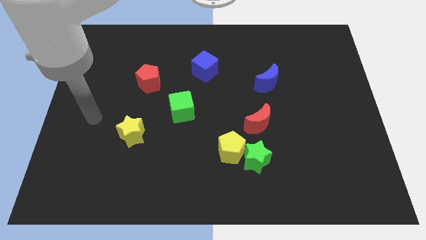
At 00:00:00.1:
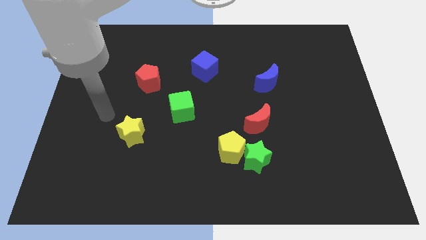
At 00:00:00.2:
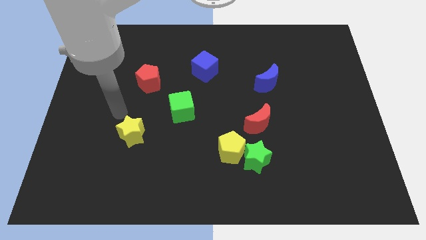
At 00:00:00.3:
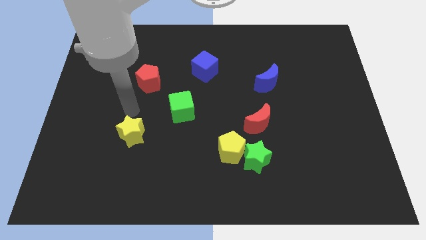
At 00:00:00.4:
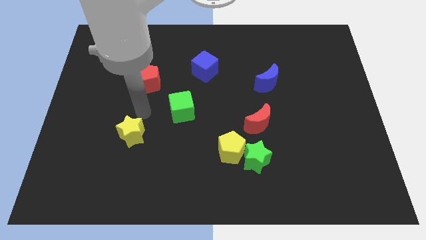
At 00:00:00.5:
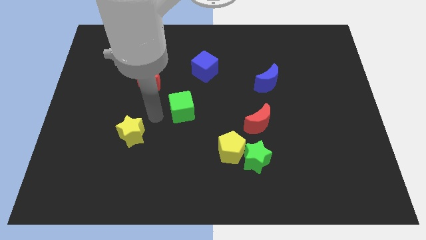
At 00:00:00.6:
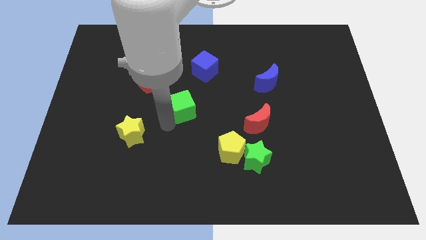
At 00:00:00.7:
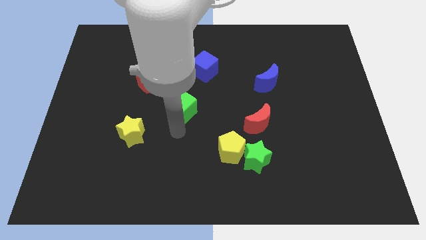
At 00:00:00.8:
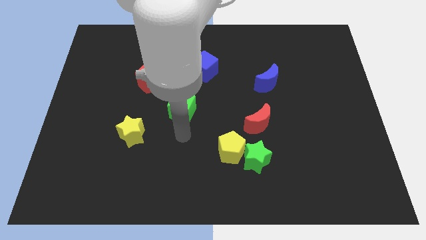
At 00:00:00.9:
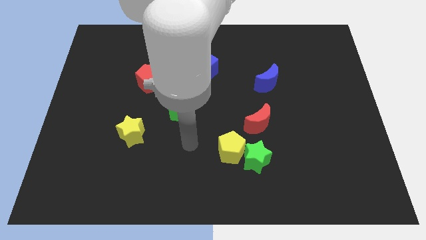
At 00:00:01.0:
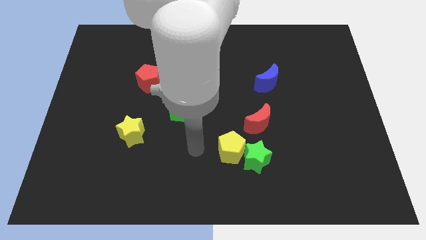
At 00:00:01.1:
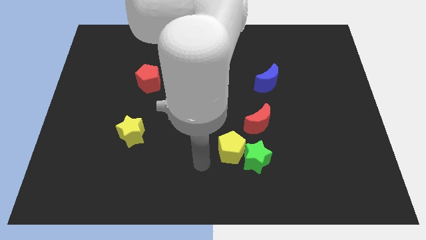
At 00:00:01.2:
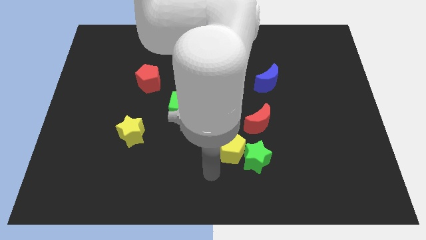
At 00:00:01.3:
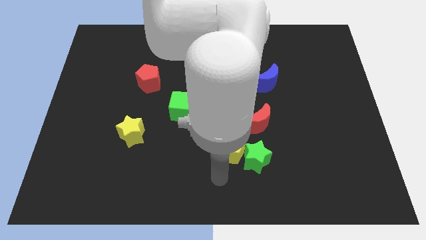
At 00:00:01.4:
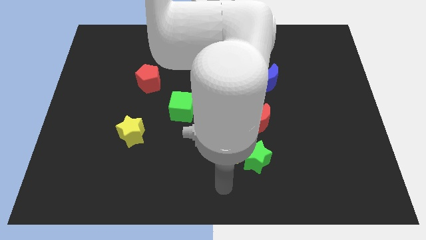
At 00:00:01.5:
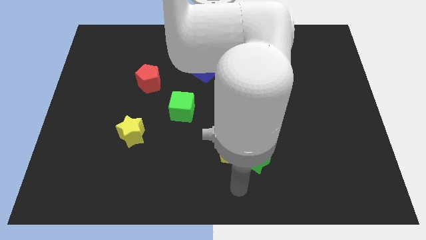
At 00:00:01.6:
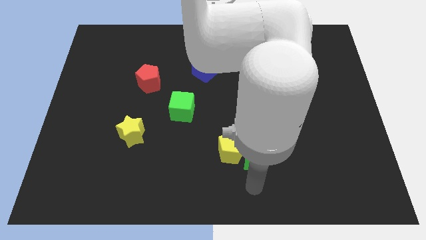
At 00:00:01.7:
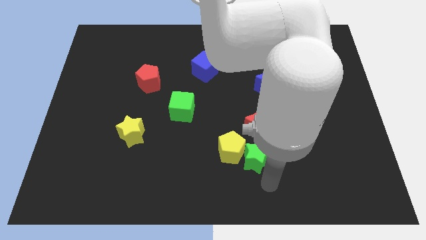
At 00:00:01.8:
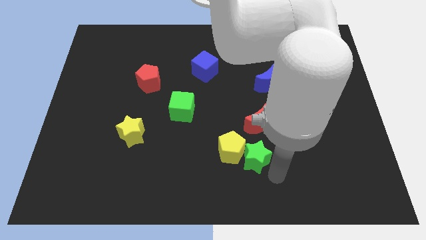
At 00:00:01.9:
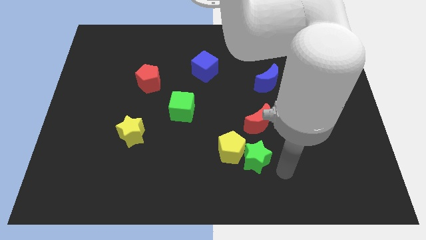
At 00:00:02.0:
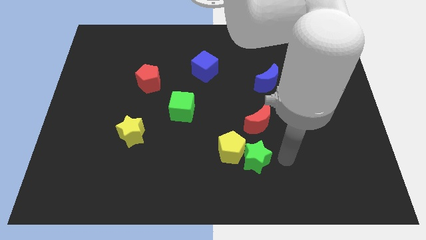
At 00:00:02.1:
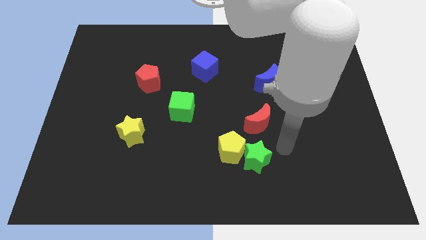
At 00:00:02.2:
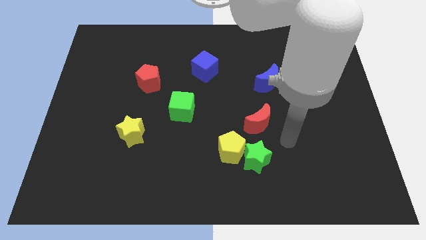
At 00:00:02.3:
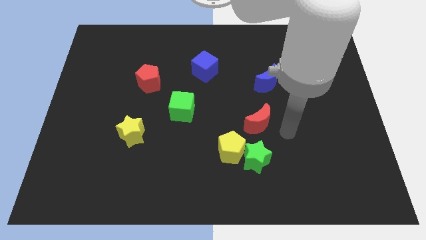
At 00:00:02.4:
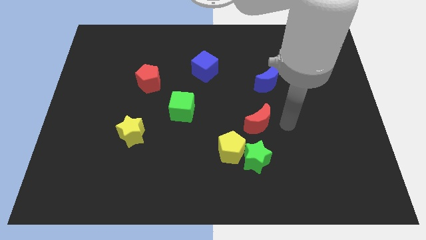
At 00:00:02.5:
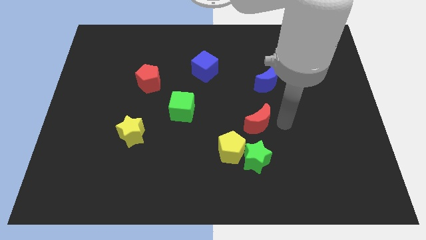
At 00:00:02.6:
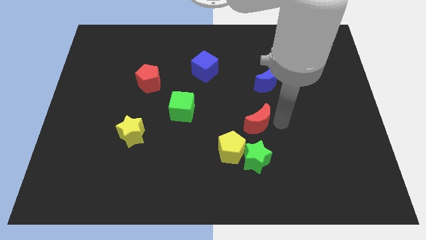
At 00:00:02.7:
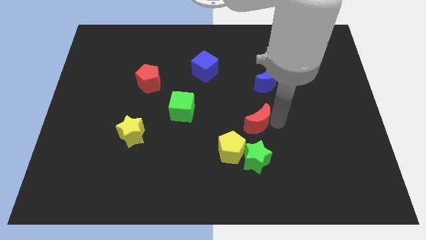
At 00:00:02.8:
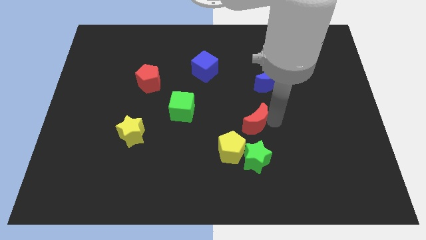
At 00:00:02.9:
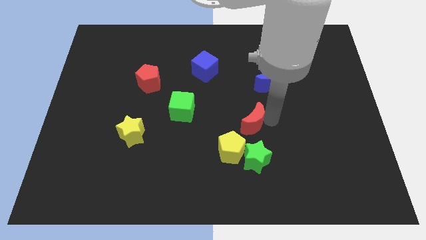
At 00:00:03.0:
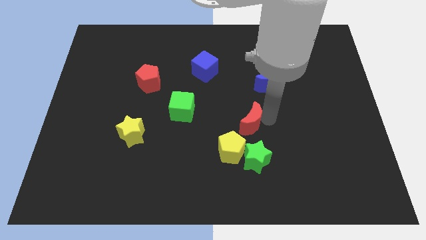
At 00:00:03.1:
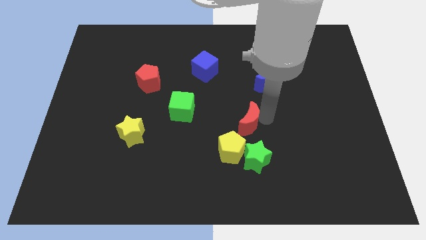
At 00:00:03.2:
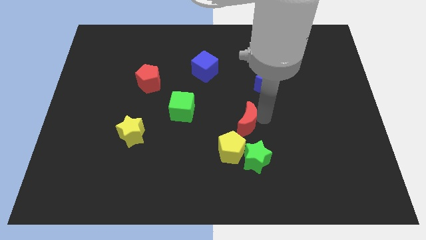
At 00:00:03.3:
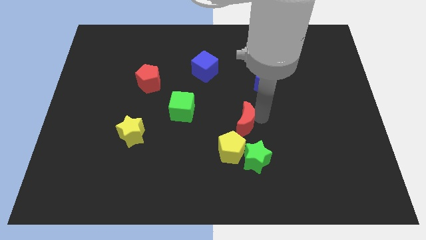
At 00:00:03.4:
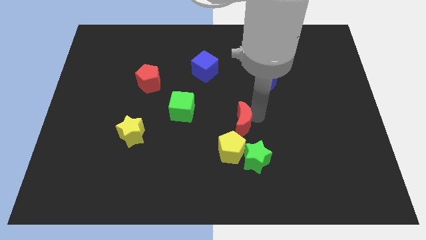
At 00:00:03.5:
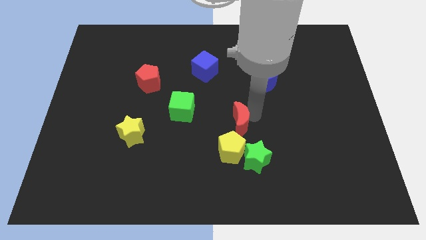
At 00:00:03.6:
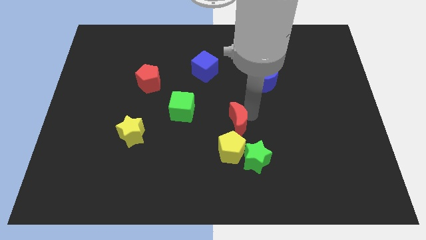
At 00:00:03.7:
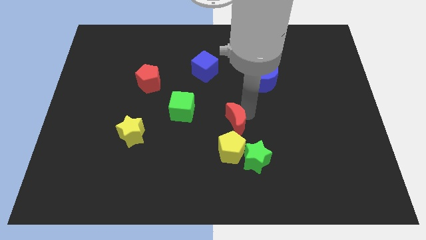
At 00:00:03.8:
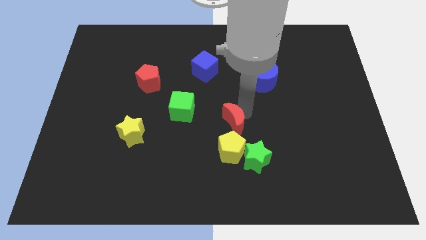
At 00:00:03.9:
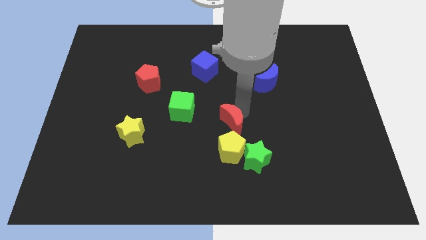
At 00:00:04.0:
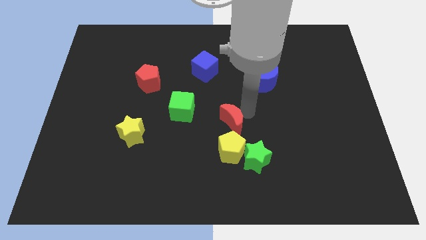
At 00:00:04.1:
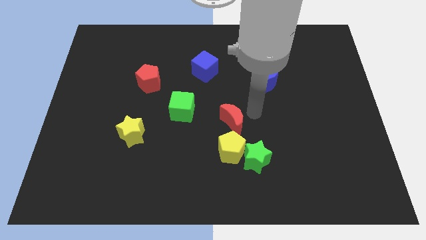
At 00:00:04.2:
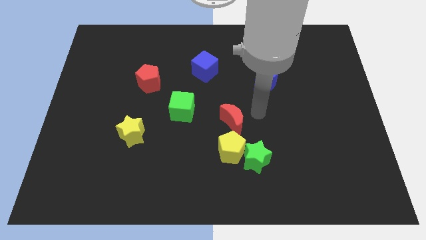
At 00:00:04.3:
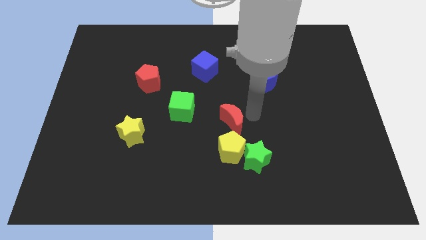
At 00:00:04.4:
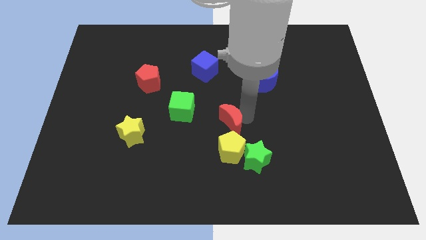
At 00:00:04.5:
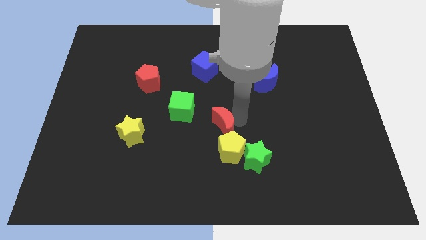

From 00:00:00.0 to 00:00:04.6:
move the red moon a bit left

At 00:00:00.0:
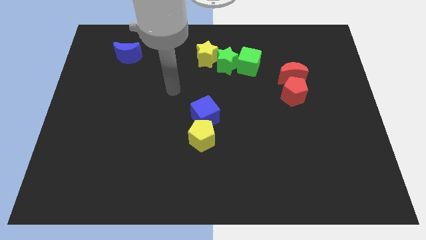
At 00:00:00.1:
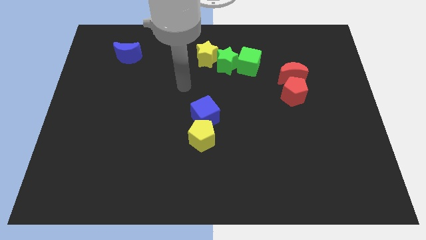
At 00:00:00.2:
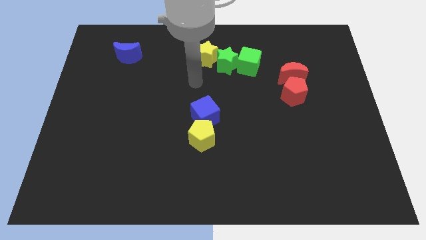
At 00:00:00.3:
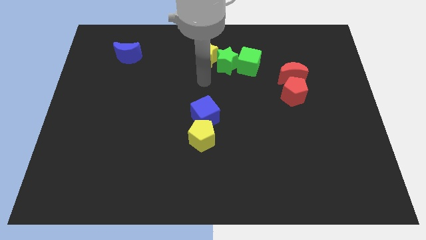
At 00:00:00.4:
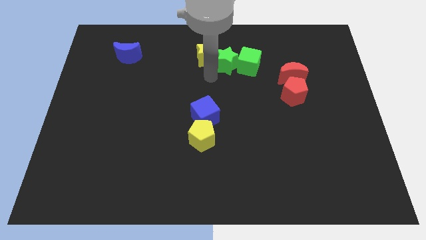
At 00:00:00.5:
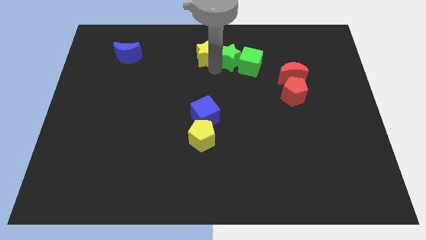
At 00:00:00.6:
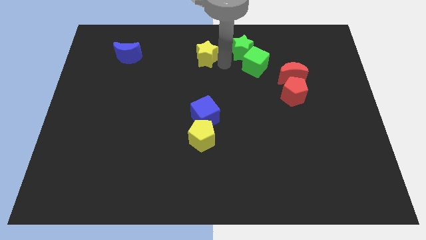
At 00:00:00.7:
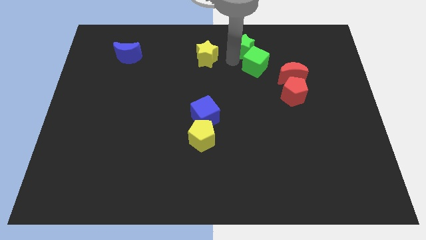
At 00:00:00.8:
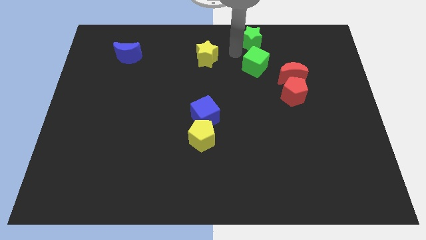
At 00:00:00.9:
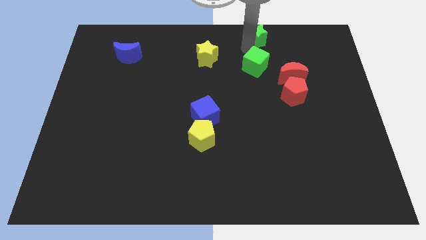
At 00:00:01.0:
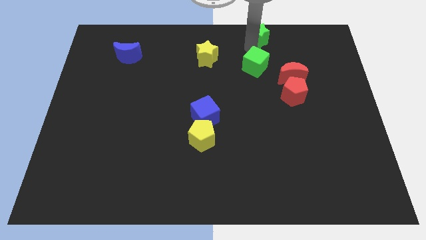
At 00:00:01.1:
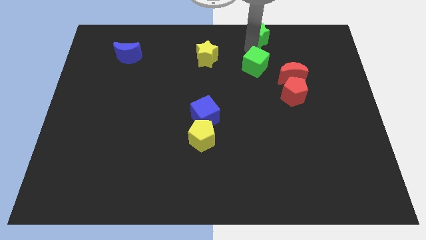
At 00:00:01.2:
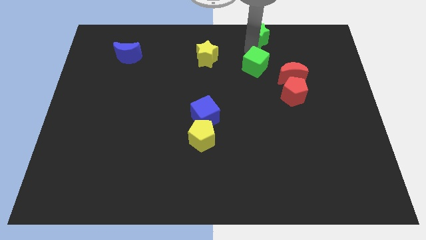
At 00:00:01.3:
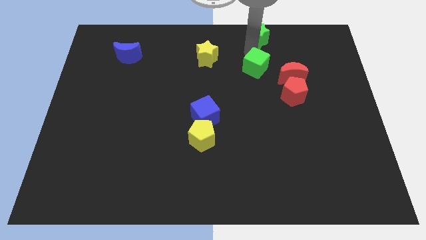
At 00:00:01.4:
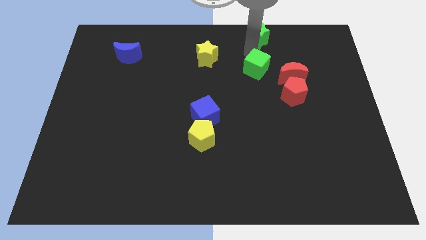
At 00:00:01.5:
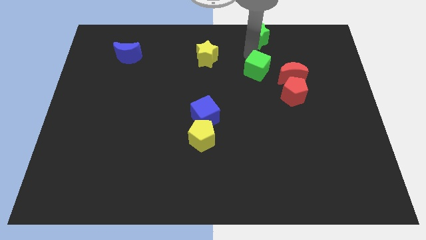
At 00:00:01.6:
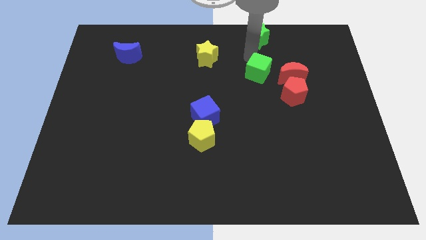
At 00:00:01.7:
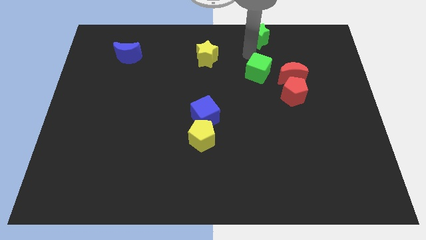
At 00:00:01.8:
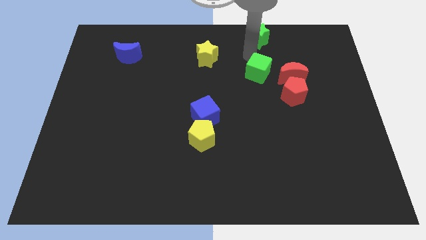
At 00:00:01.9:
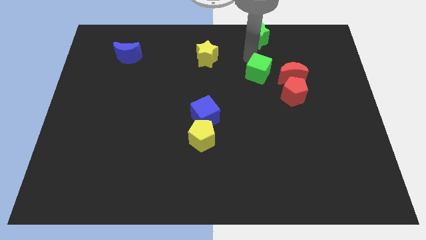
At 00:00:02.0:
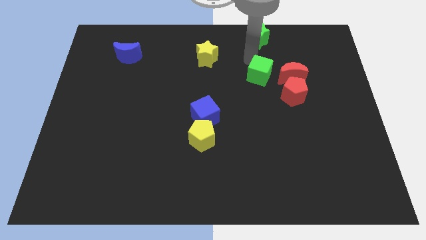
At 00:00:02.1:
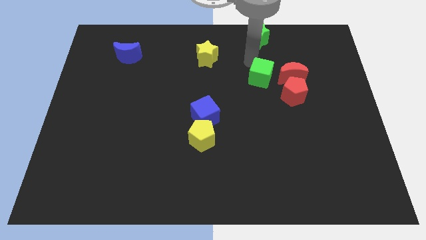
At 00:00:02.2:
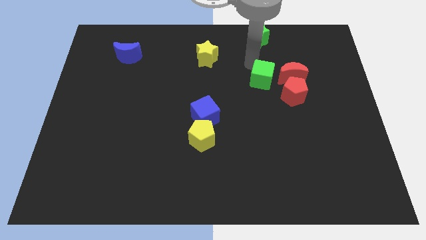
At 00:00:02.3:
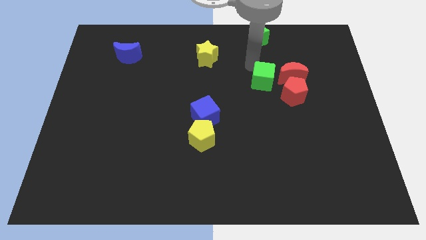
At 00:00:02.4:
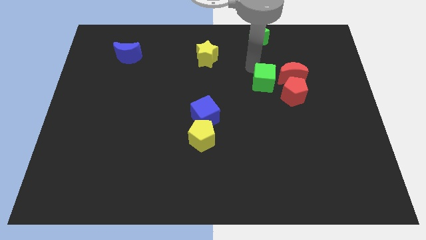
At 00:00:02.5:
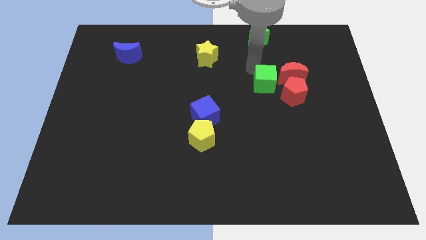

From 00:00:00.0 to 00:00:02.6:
slide the green cube down and right a bit

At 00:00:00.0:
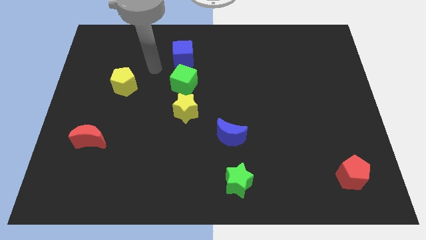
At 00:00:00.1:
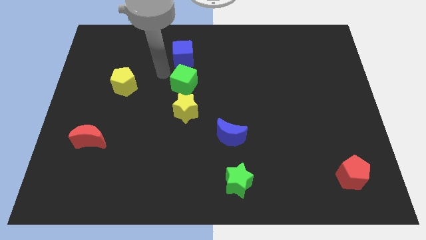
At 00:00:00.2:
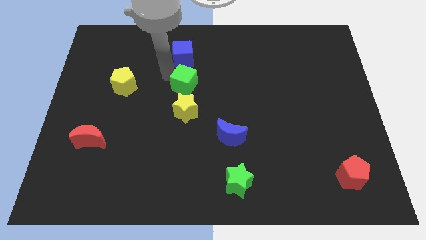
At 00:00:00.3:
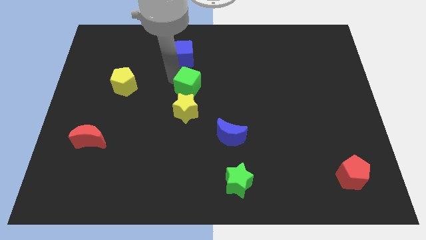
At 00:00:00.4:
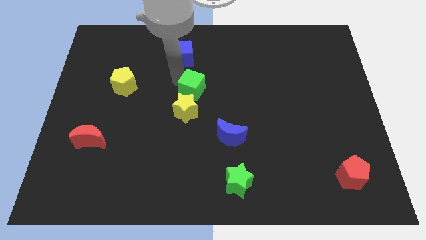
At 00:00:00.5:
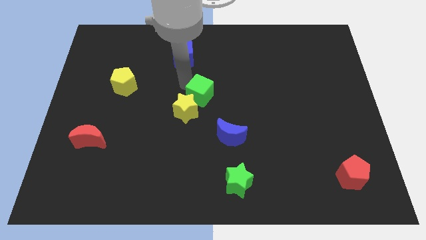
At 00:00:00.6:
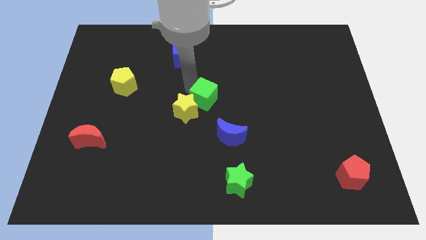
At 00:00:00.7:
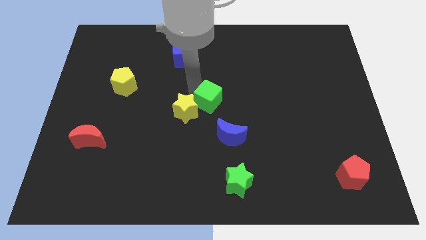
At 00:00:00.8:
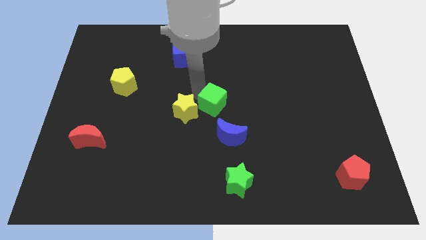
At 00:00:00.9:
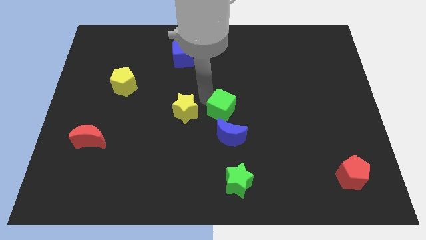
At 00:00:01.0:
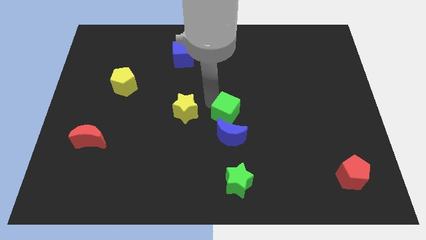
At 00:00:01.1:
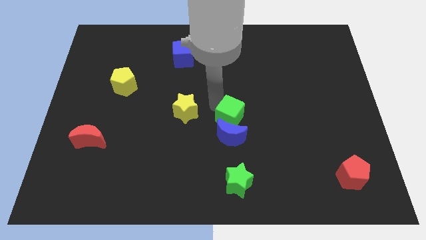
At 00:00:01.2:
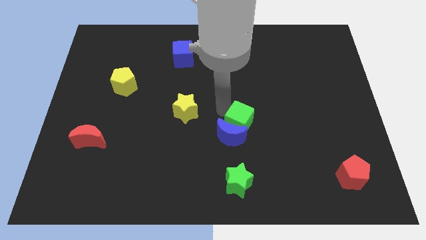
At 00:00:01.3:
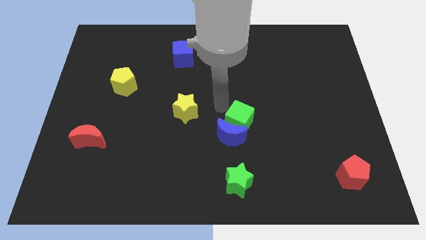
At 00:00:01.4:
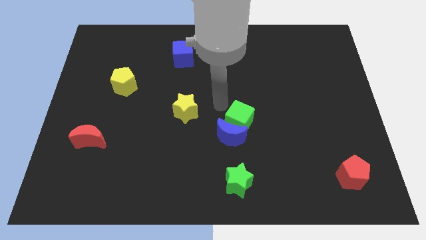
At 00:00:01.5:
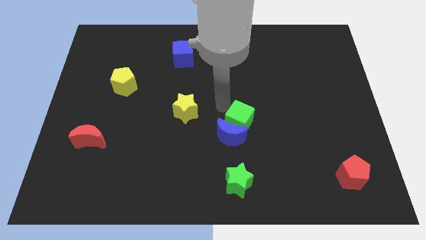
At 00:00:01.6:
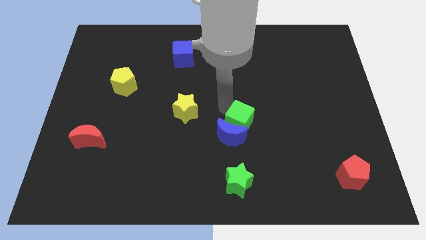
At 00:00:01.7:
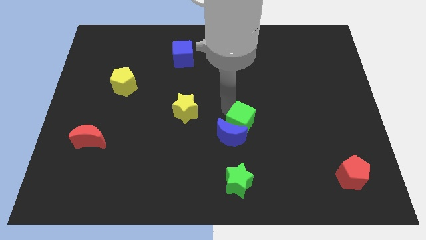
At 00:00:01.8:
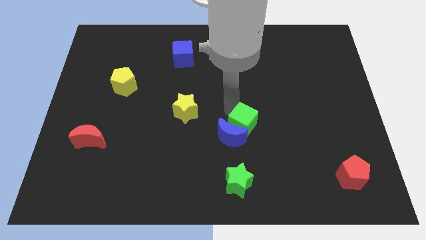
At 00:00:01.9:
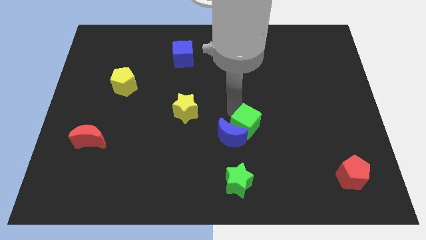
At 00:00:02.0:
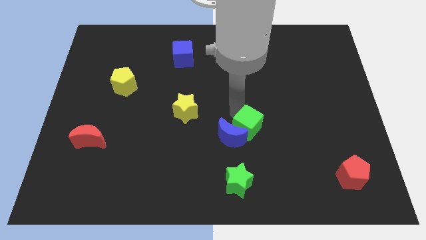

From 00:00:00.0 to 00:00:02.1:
slide the green cube down and to the right
